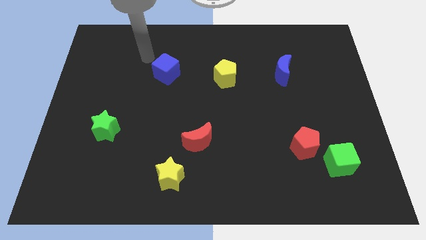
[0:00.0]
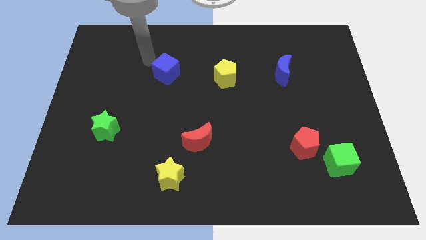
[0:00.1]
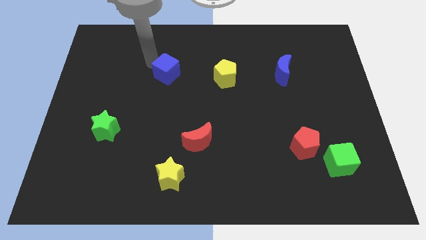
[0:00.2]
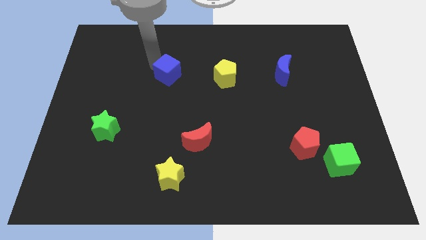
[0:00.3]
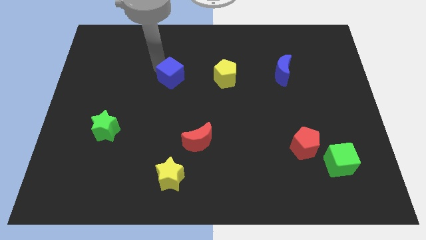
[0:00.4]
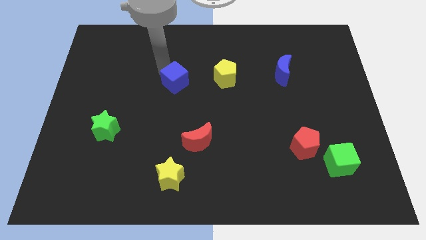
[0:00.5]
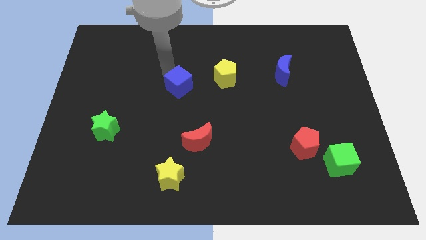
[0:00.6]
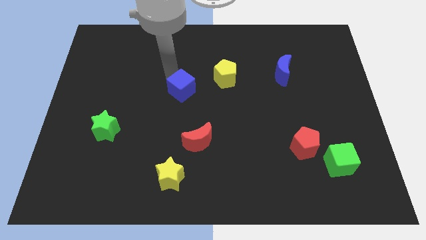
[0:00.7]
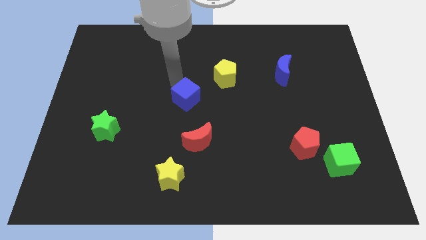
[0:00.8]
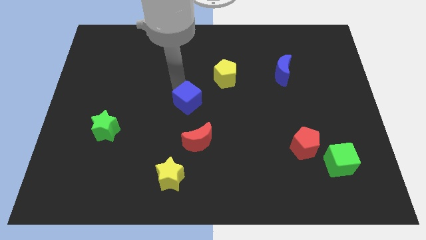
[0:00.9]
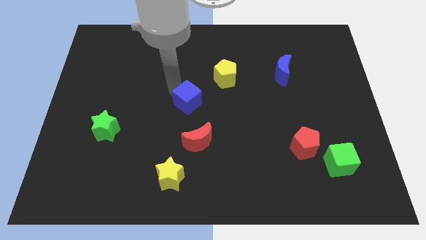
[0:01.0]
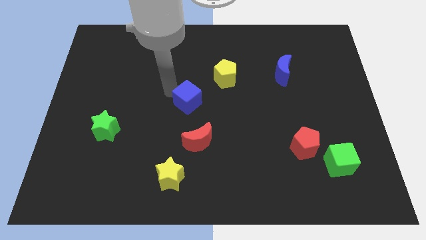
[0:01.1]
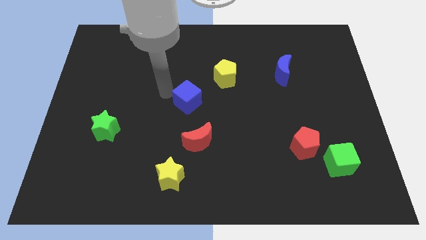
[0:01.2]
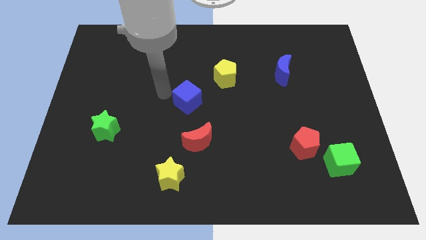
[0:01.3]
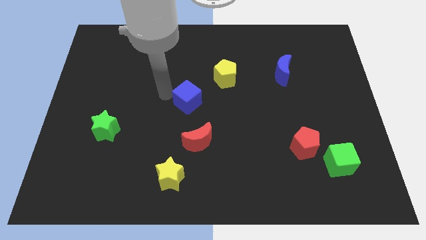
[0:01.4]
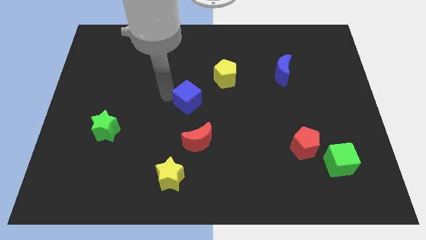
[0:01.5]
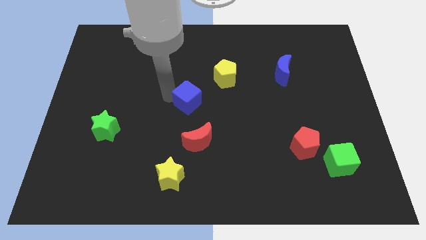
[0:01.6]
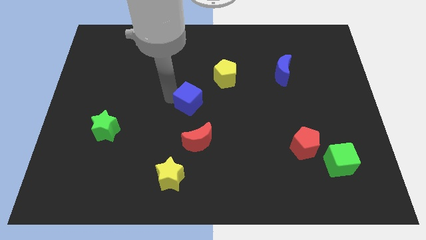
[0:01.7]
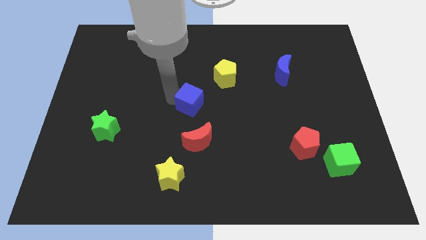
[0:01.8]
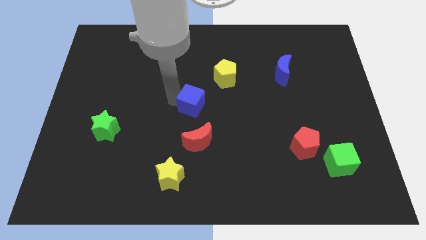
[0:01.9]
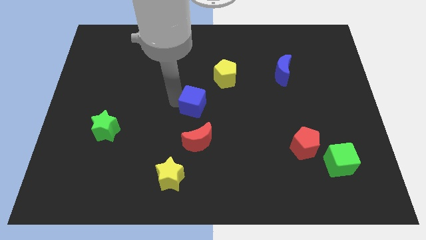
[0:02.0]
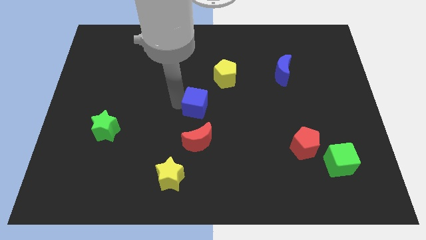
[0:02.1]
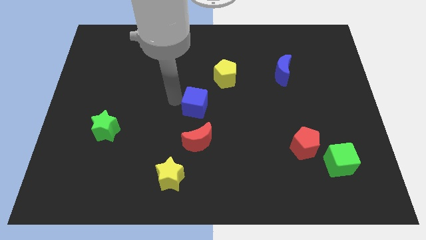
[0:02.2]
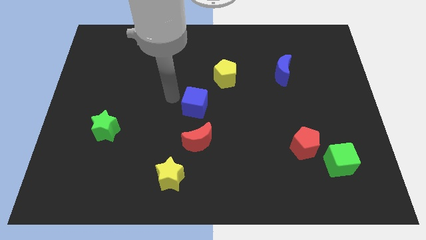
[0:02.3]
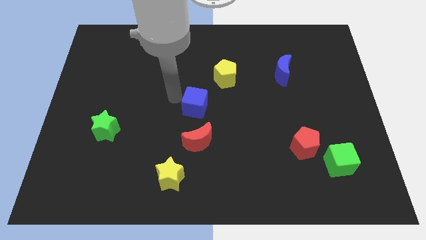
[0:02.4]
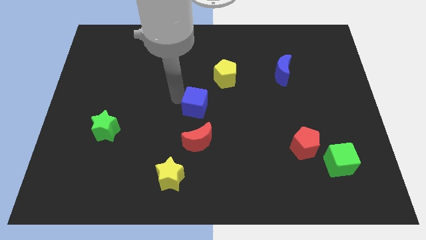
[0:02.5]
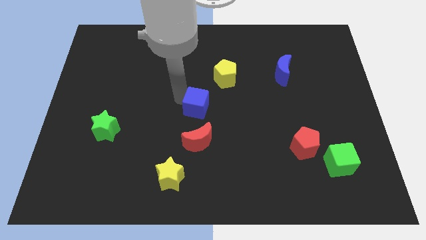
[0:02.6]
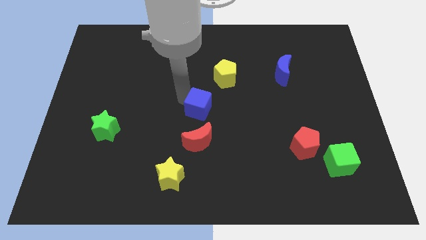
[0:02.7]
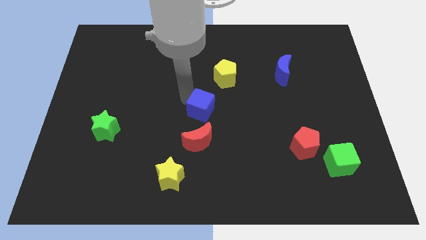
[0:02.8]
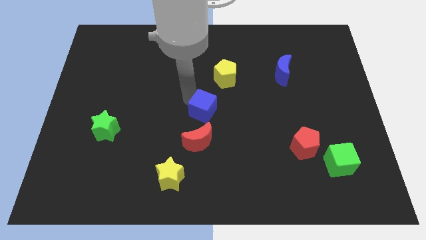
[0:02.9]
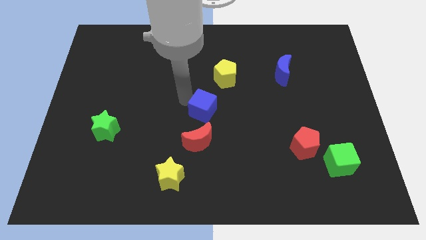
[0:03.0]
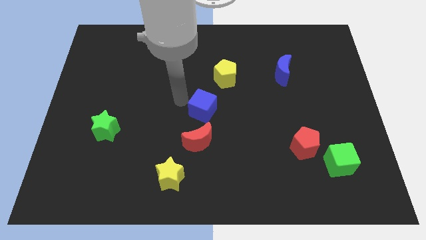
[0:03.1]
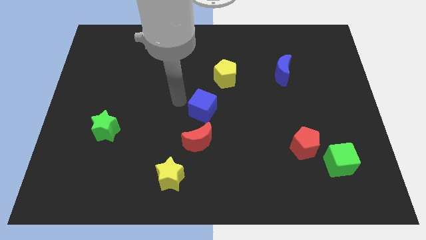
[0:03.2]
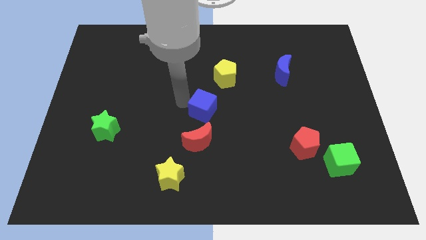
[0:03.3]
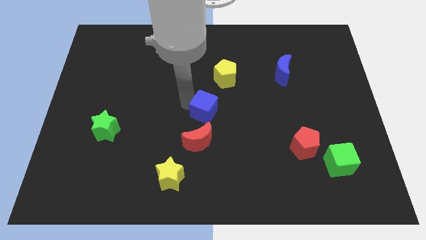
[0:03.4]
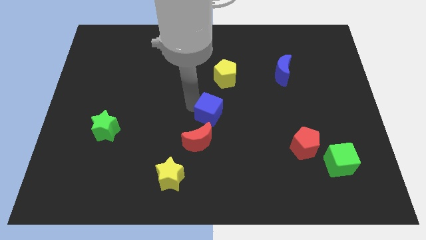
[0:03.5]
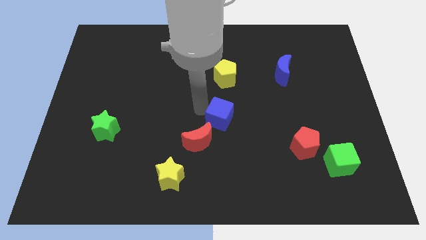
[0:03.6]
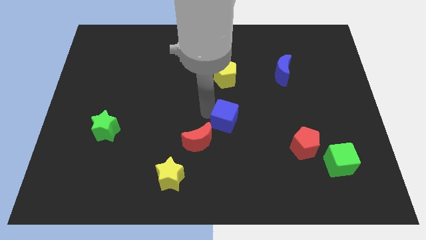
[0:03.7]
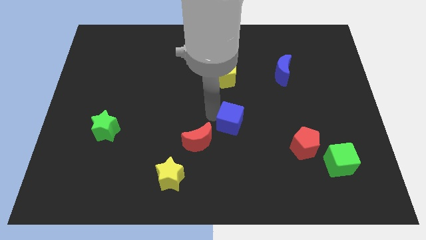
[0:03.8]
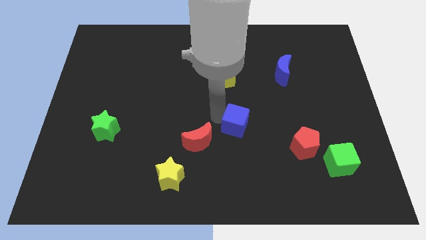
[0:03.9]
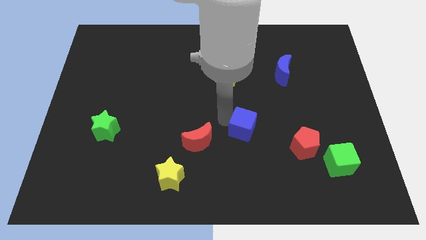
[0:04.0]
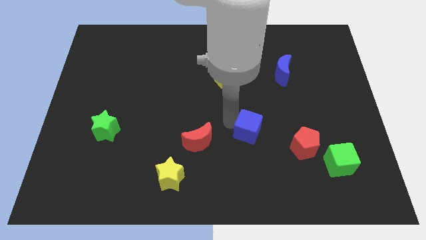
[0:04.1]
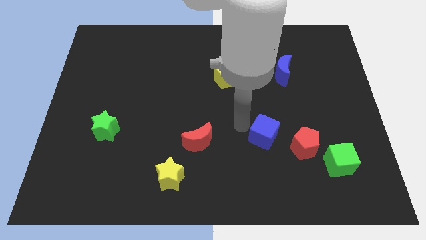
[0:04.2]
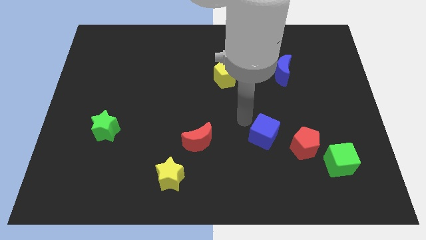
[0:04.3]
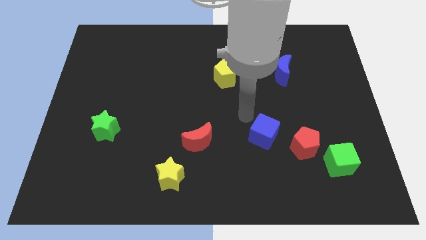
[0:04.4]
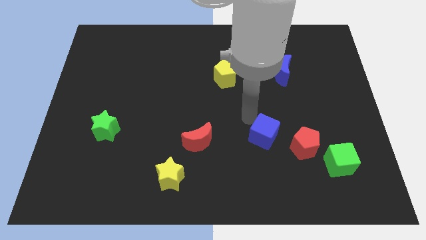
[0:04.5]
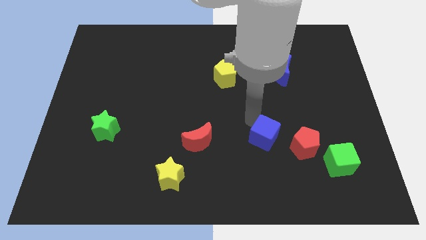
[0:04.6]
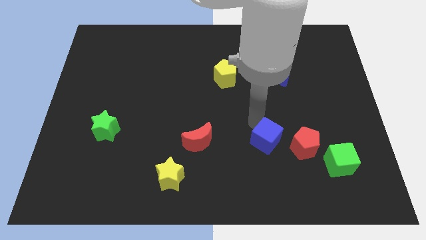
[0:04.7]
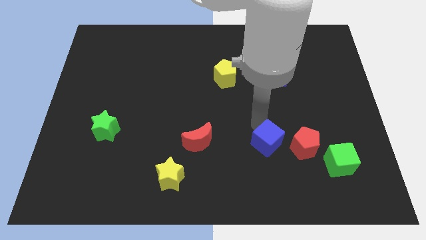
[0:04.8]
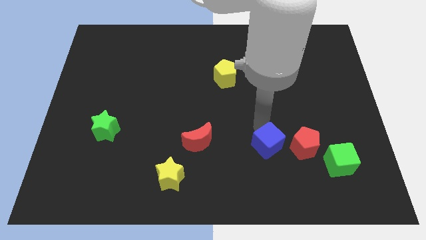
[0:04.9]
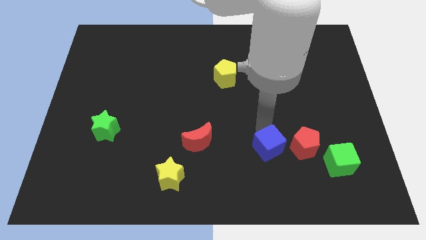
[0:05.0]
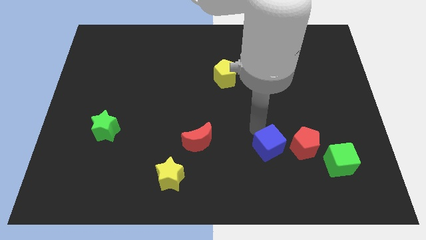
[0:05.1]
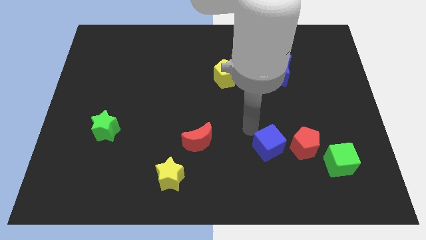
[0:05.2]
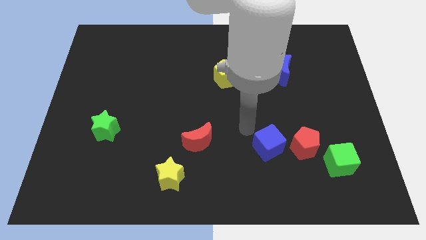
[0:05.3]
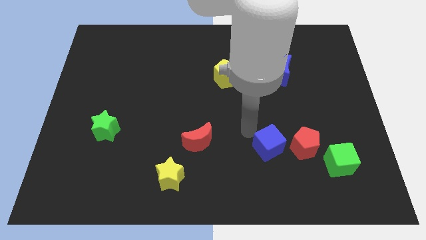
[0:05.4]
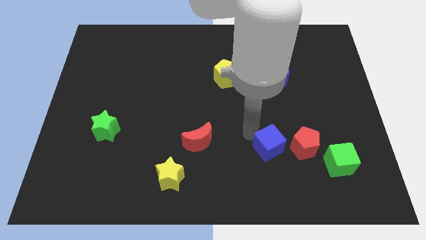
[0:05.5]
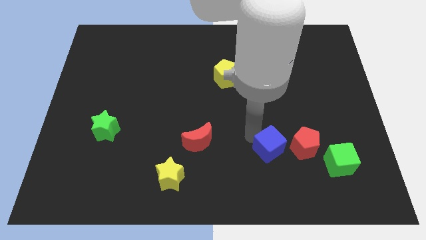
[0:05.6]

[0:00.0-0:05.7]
push the blue cube left of the green cube

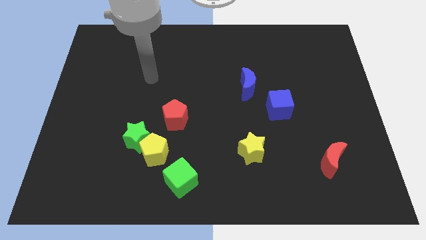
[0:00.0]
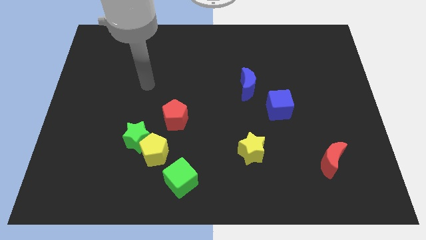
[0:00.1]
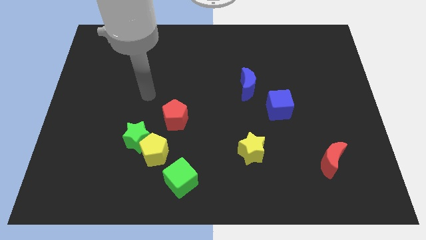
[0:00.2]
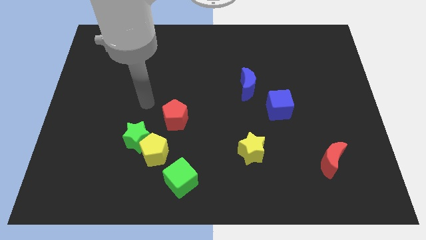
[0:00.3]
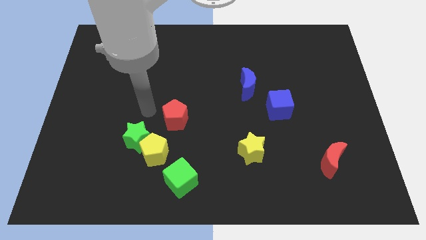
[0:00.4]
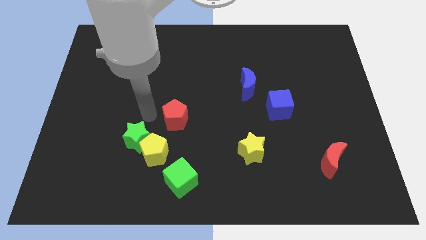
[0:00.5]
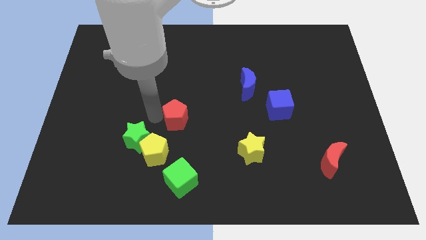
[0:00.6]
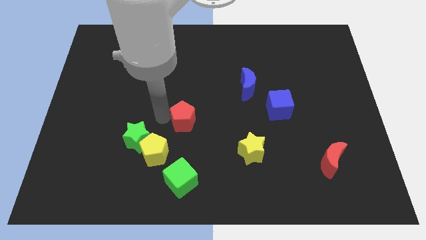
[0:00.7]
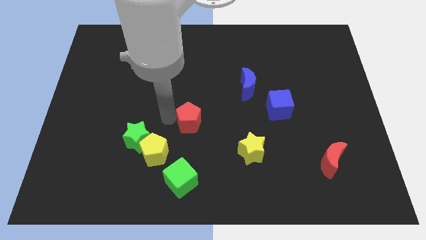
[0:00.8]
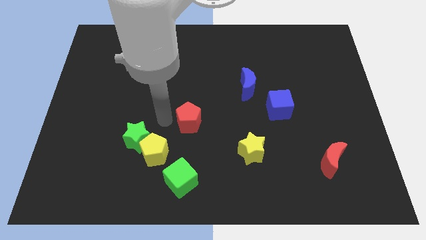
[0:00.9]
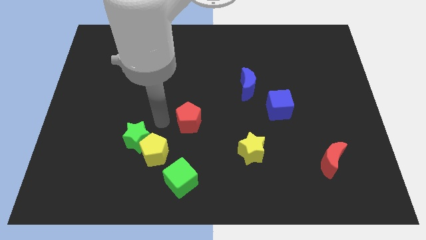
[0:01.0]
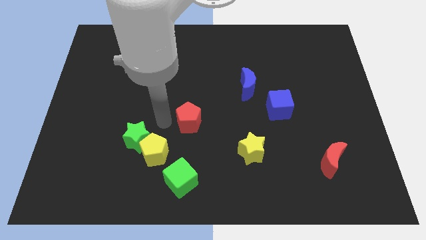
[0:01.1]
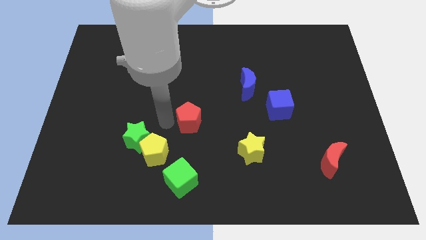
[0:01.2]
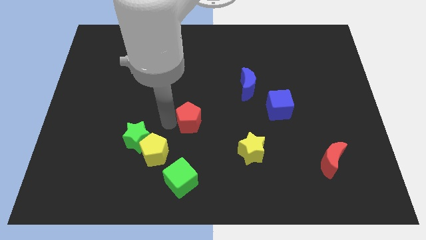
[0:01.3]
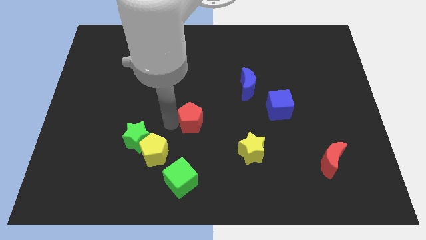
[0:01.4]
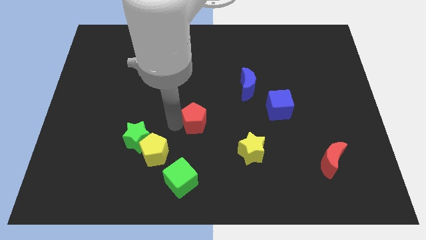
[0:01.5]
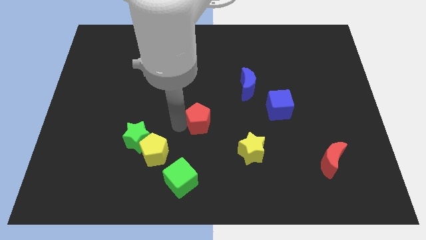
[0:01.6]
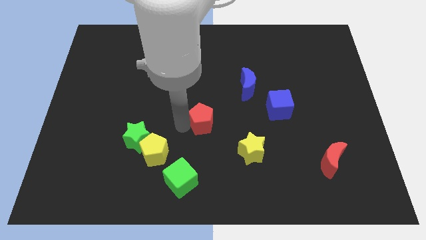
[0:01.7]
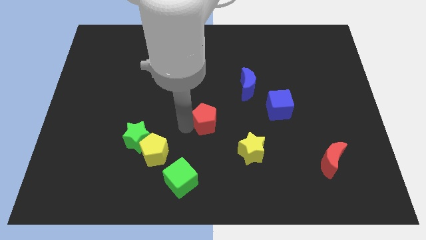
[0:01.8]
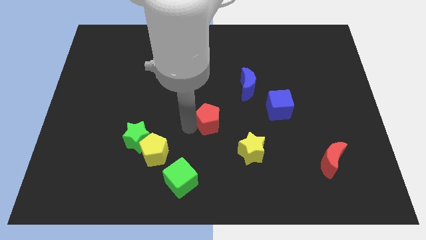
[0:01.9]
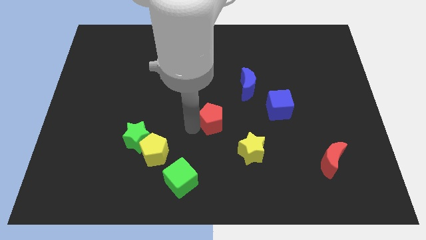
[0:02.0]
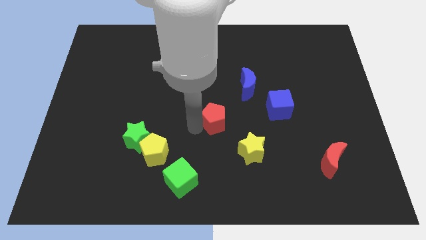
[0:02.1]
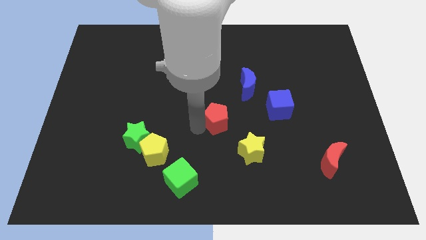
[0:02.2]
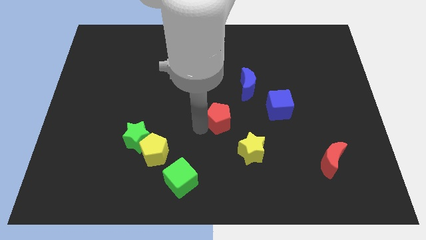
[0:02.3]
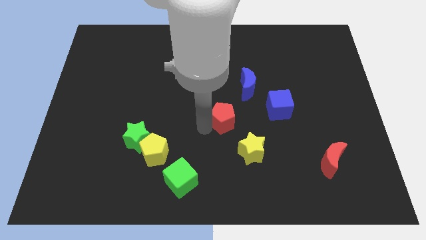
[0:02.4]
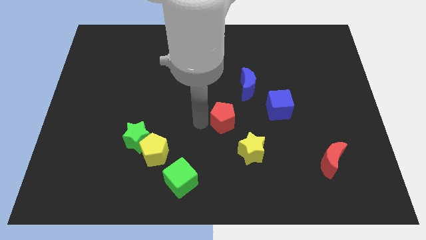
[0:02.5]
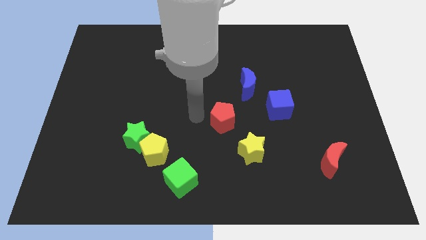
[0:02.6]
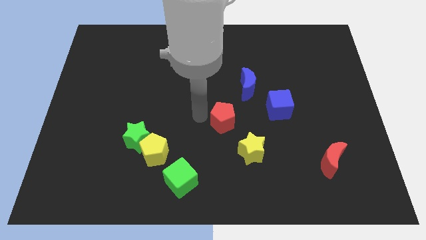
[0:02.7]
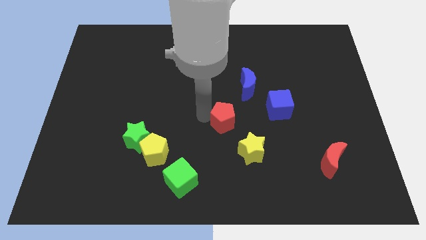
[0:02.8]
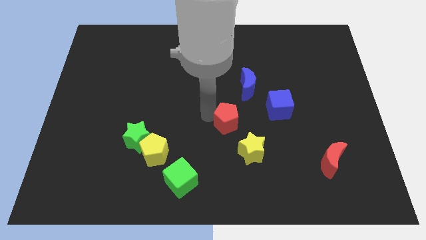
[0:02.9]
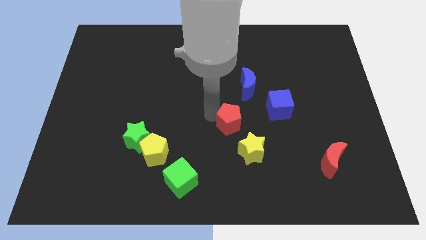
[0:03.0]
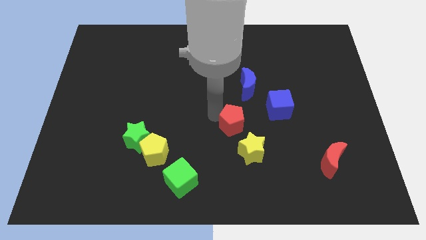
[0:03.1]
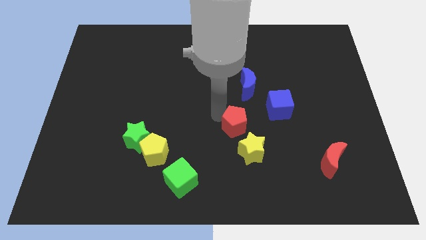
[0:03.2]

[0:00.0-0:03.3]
push the red pentagon diagonally down and to the left of the blue cube
